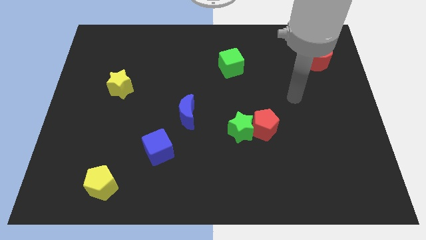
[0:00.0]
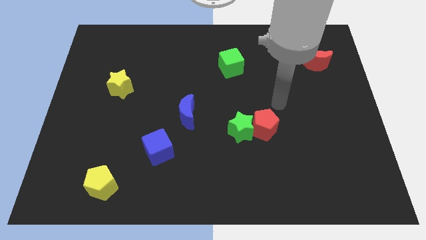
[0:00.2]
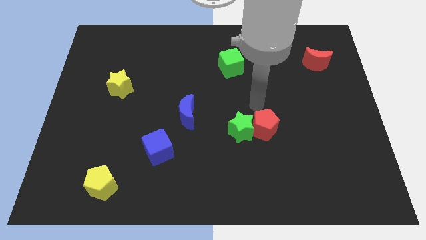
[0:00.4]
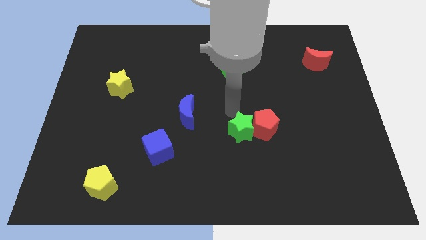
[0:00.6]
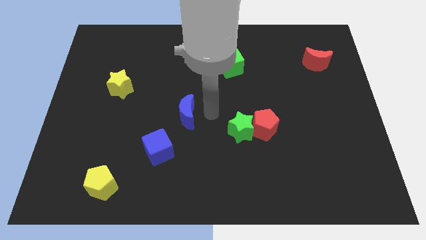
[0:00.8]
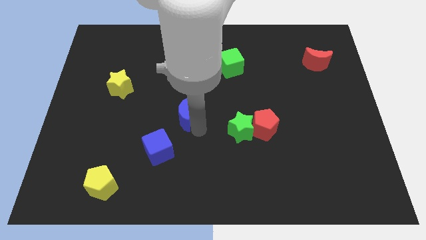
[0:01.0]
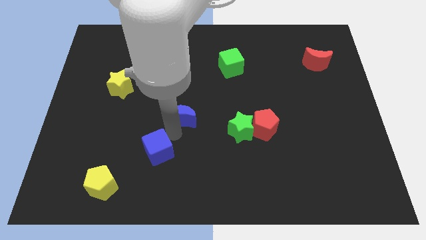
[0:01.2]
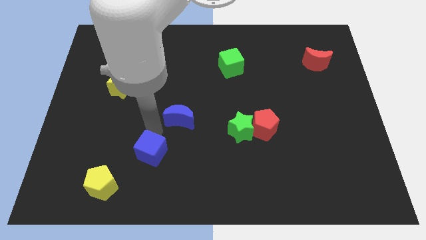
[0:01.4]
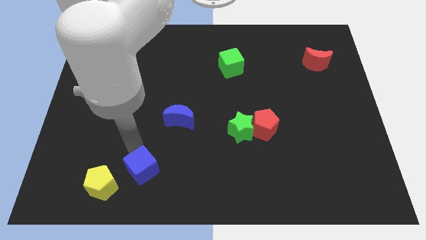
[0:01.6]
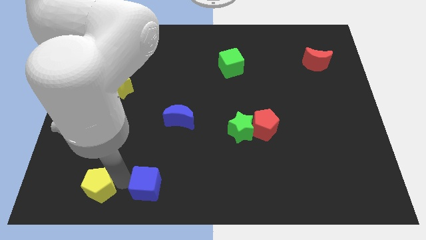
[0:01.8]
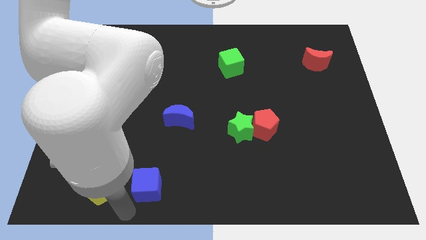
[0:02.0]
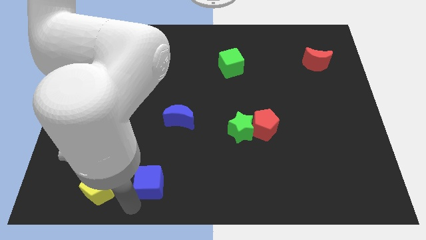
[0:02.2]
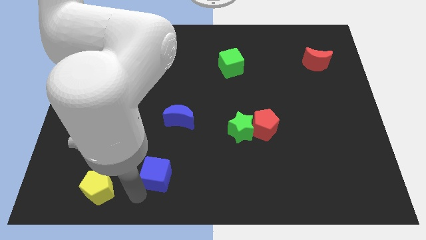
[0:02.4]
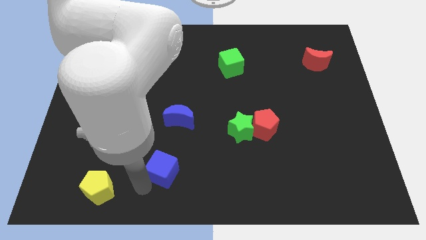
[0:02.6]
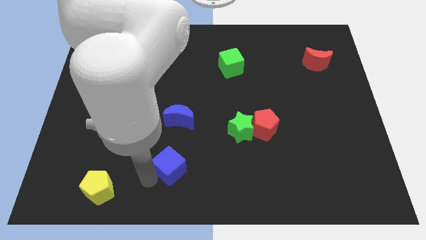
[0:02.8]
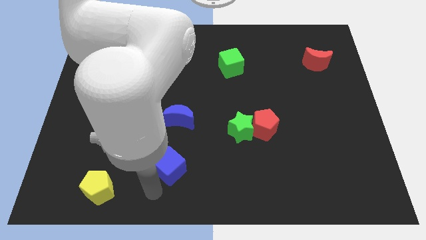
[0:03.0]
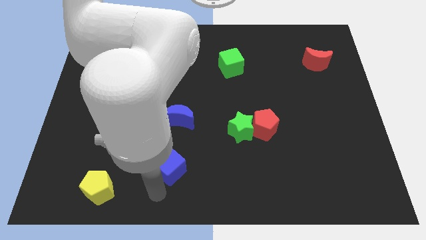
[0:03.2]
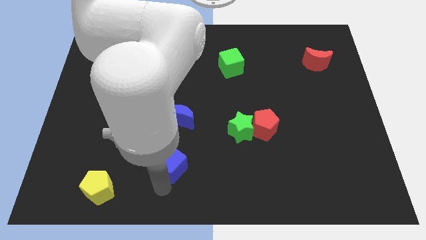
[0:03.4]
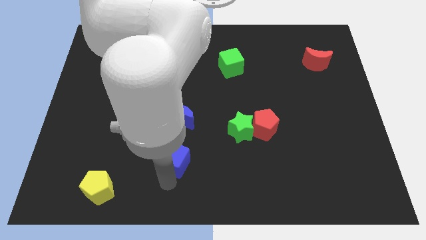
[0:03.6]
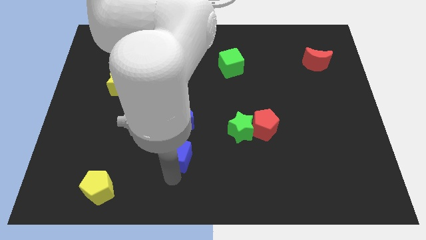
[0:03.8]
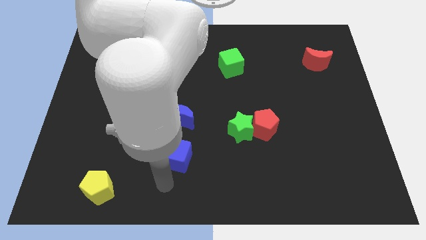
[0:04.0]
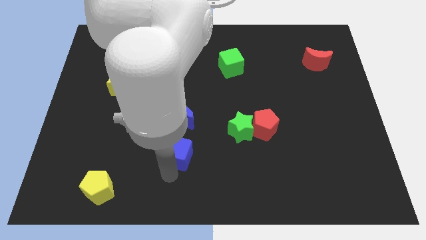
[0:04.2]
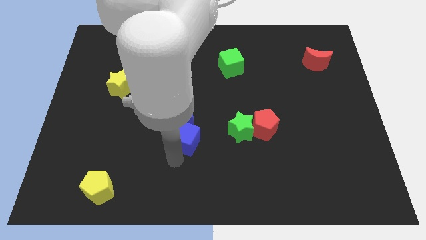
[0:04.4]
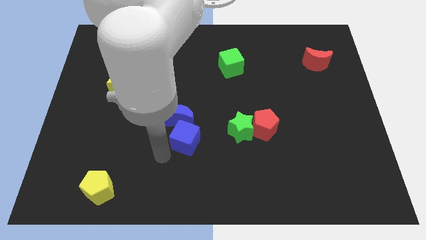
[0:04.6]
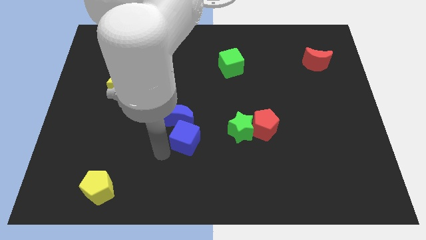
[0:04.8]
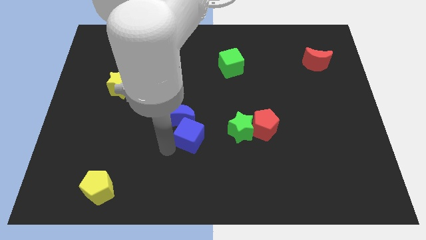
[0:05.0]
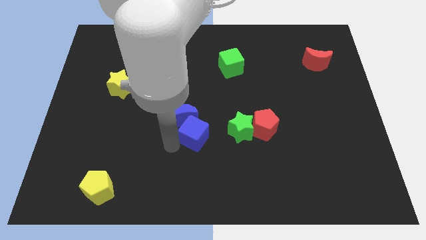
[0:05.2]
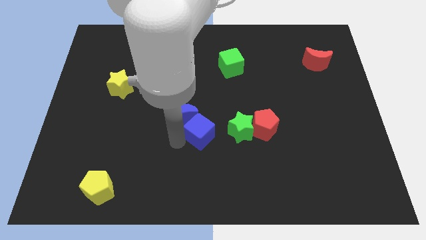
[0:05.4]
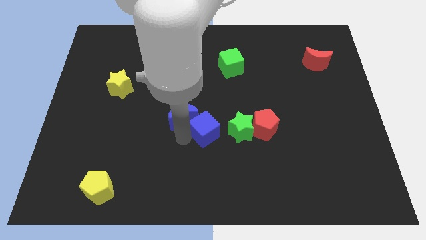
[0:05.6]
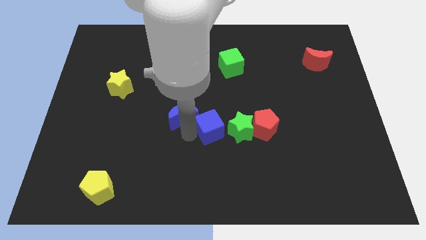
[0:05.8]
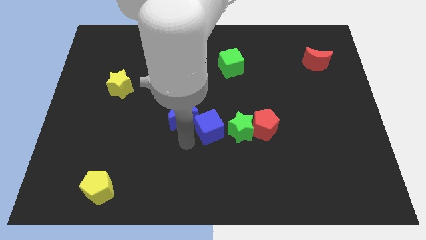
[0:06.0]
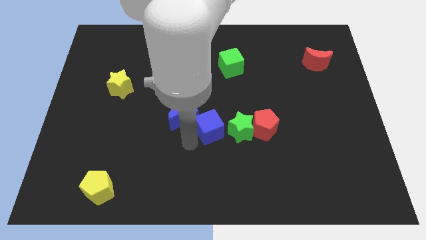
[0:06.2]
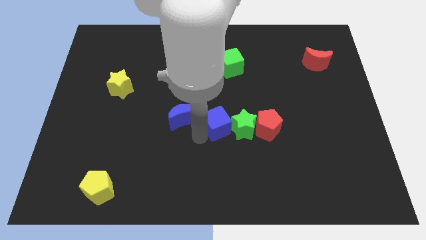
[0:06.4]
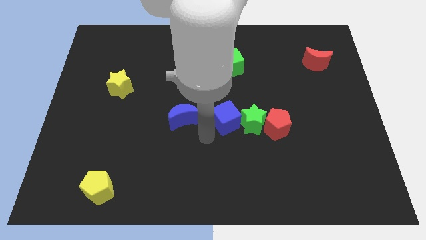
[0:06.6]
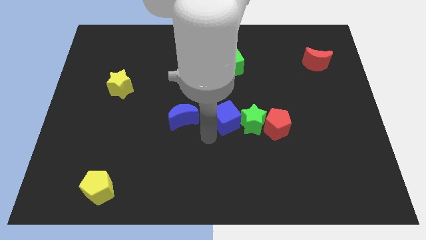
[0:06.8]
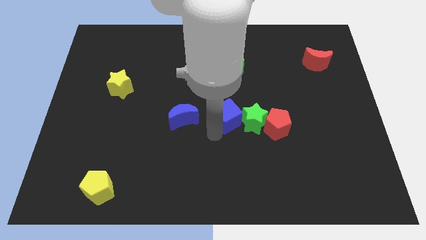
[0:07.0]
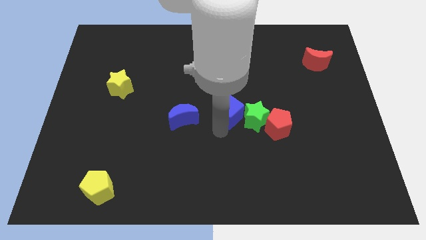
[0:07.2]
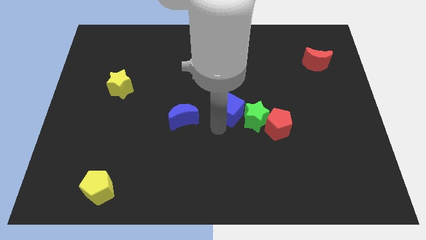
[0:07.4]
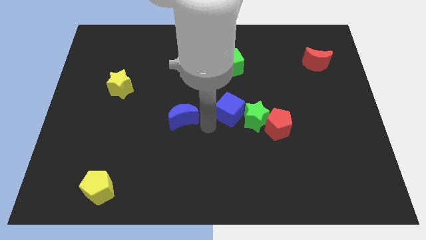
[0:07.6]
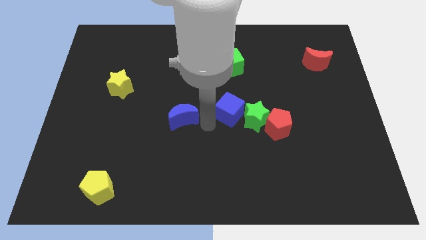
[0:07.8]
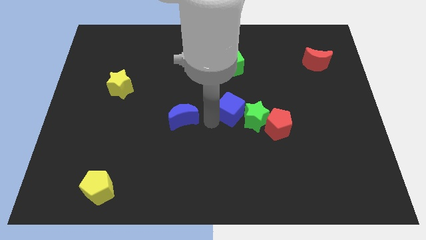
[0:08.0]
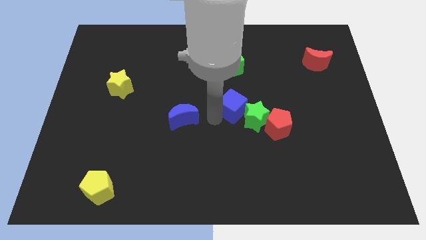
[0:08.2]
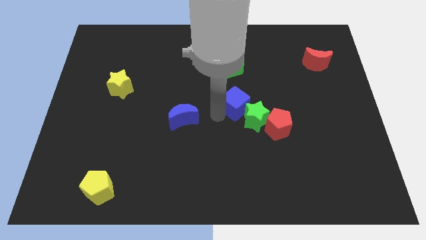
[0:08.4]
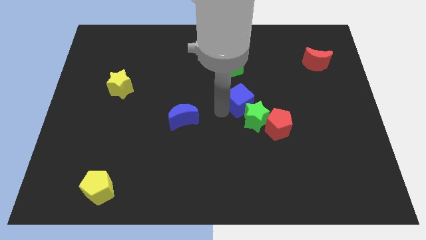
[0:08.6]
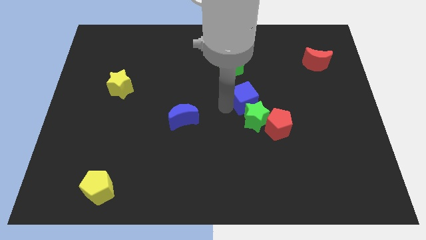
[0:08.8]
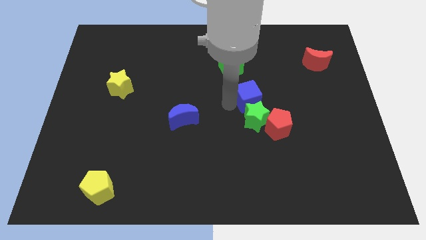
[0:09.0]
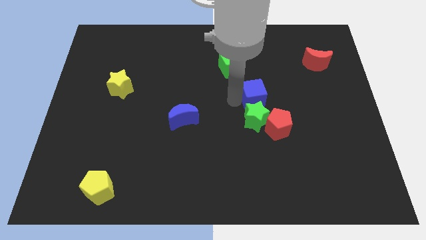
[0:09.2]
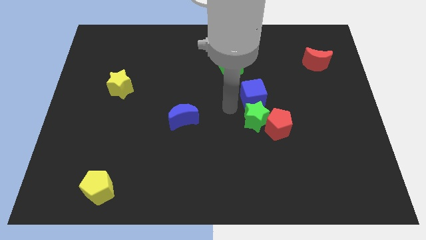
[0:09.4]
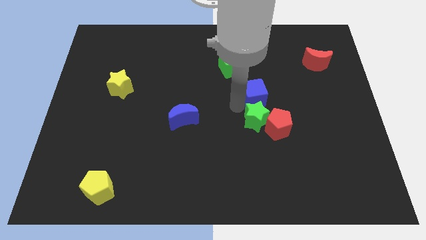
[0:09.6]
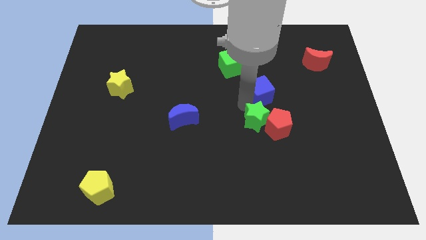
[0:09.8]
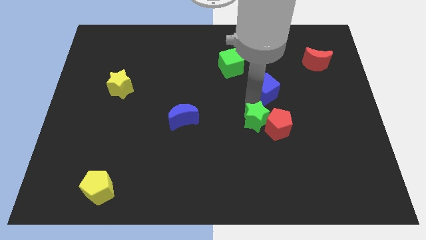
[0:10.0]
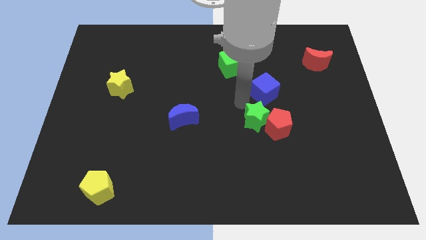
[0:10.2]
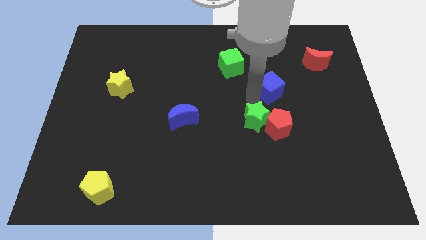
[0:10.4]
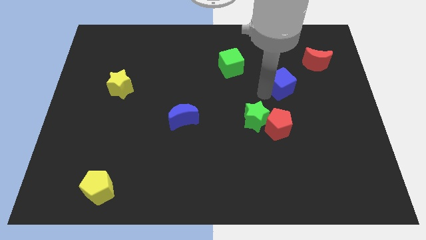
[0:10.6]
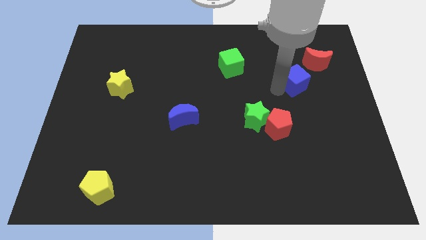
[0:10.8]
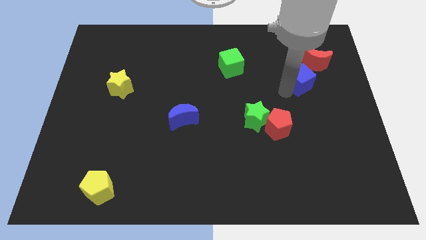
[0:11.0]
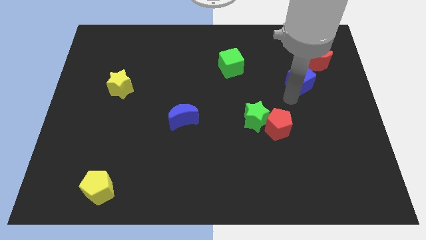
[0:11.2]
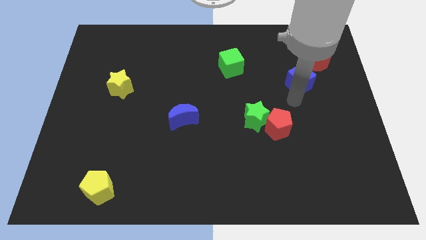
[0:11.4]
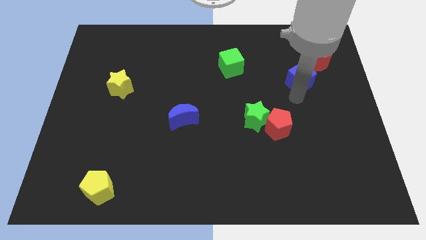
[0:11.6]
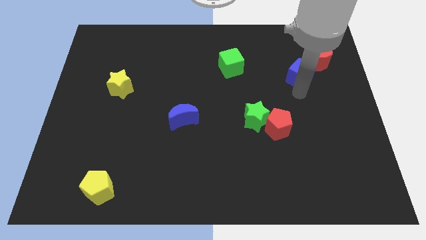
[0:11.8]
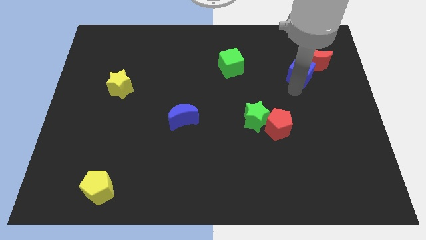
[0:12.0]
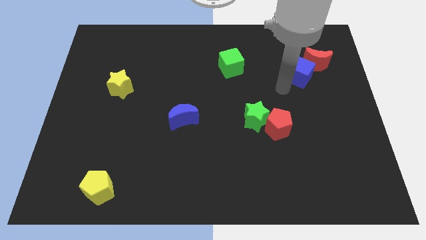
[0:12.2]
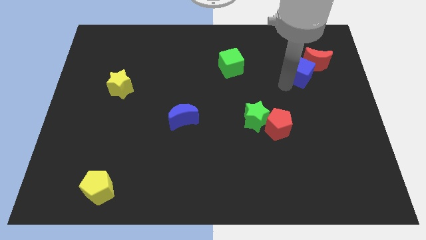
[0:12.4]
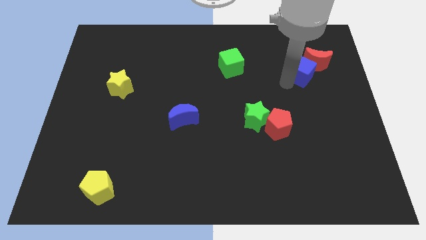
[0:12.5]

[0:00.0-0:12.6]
slide the blue cube to the red moon
